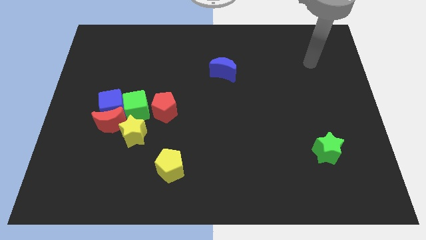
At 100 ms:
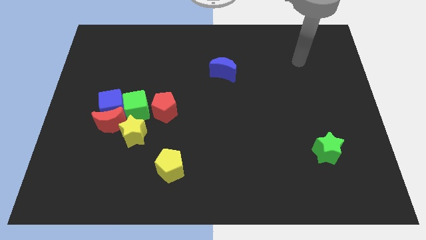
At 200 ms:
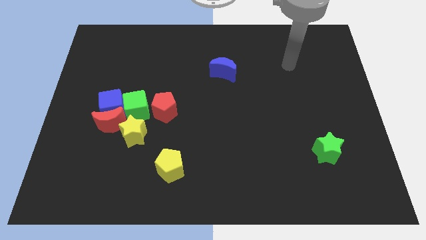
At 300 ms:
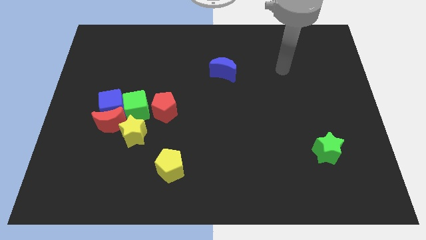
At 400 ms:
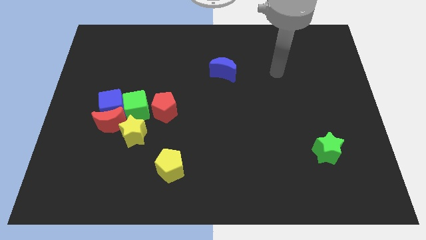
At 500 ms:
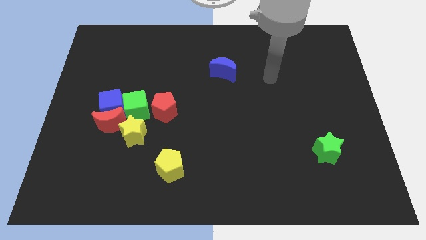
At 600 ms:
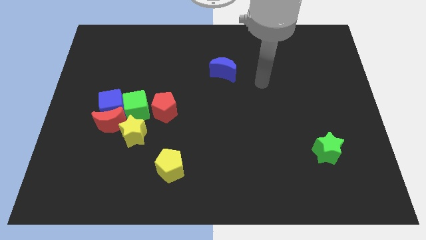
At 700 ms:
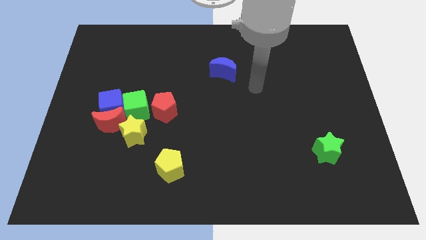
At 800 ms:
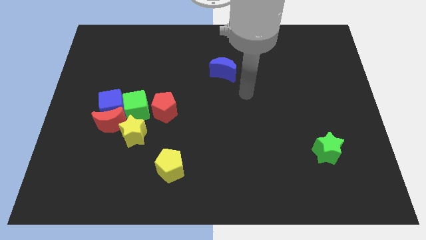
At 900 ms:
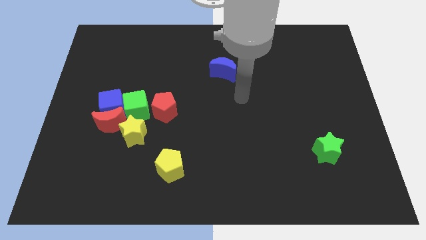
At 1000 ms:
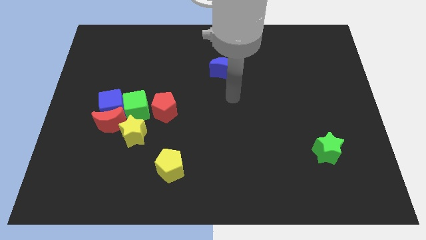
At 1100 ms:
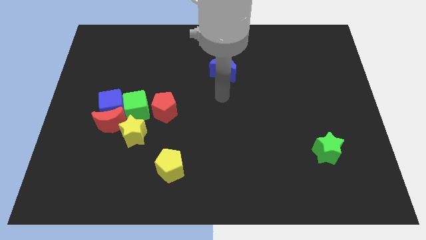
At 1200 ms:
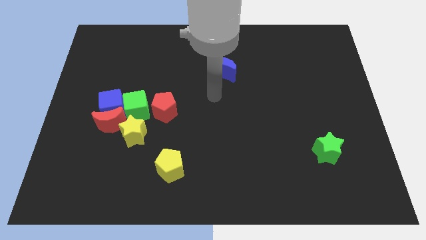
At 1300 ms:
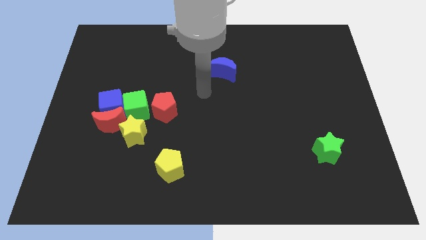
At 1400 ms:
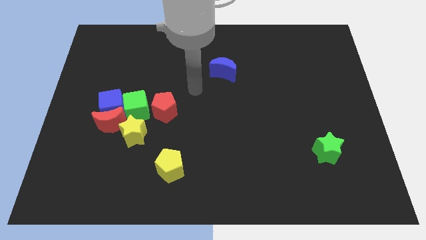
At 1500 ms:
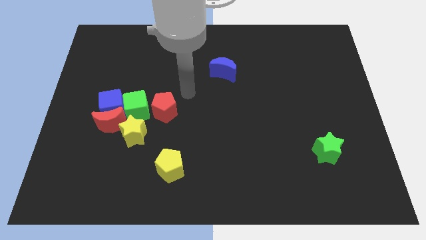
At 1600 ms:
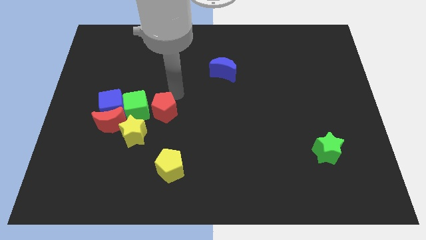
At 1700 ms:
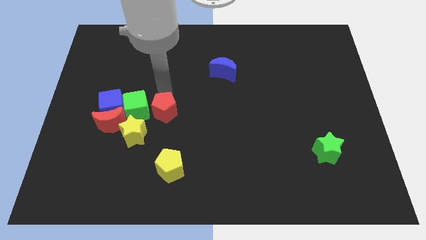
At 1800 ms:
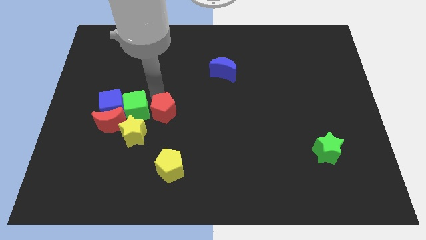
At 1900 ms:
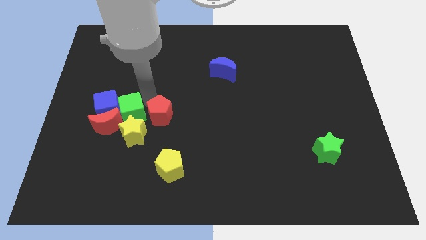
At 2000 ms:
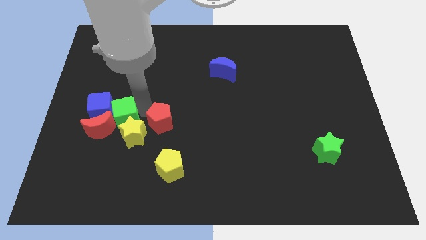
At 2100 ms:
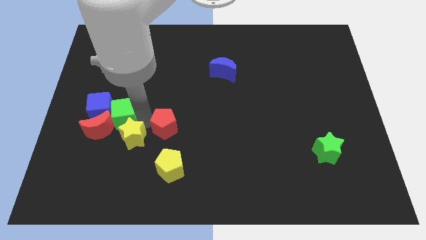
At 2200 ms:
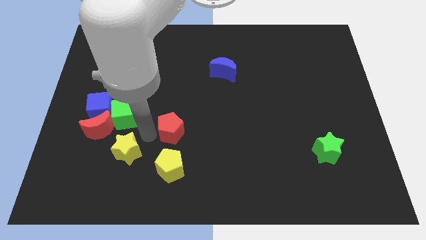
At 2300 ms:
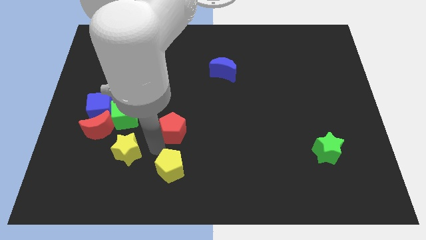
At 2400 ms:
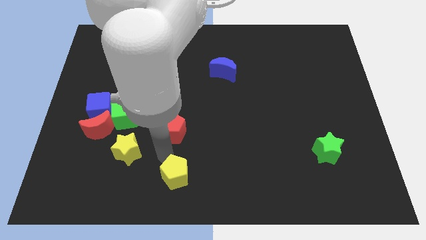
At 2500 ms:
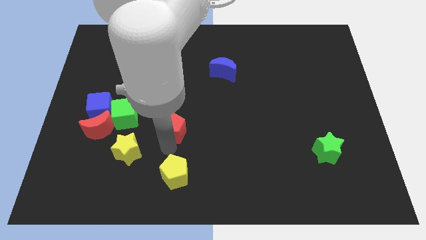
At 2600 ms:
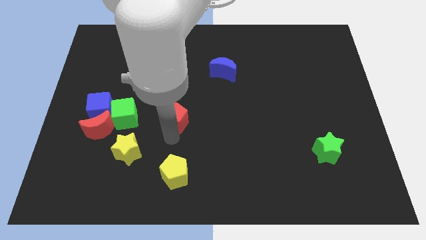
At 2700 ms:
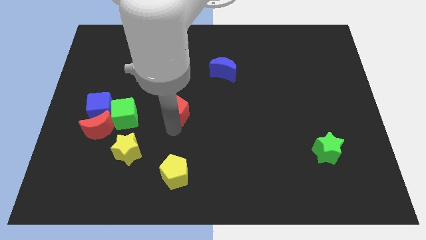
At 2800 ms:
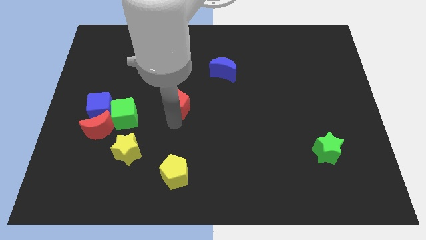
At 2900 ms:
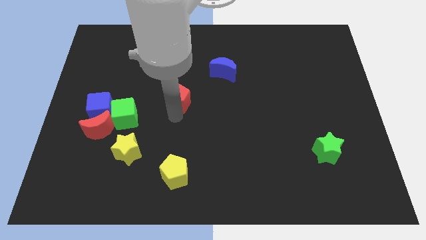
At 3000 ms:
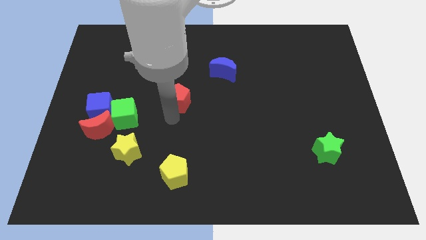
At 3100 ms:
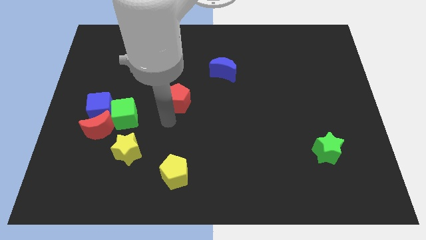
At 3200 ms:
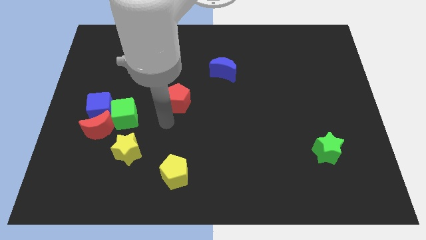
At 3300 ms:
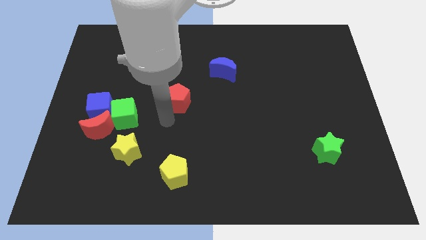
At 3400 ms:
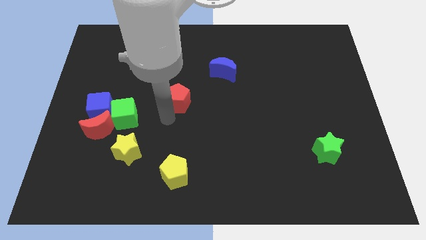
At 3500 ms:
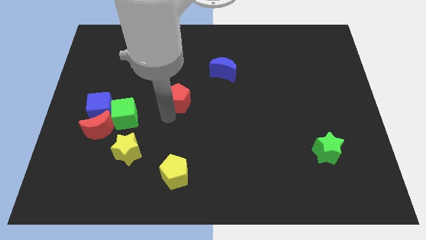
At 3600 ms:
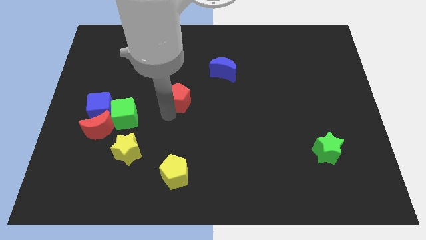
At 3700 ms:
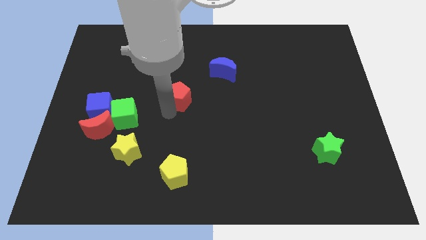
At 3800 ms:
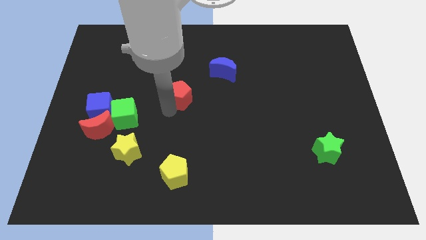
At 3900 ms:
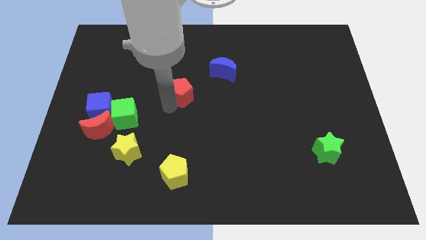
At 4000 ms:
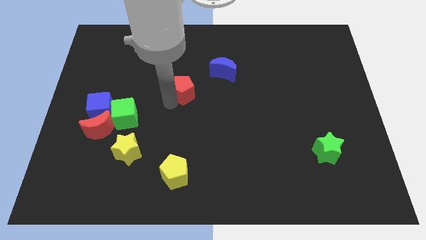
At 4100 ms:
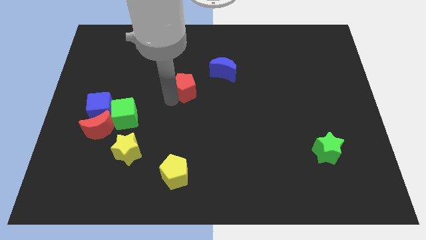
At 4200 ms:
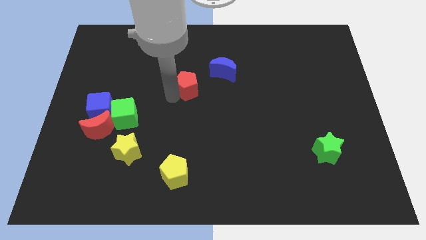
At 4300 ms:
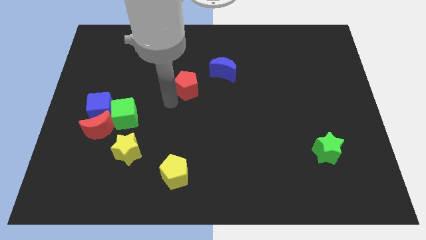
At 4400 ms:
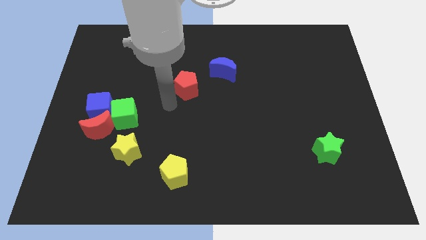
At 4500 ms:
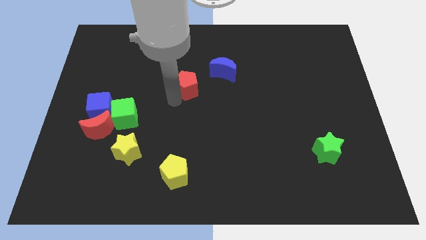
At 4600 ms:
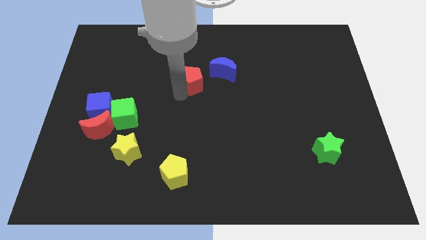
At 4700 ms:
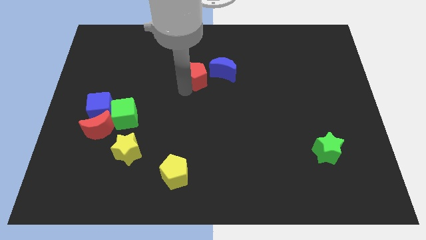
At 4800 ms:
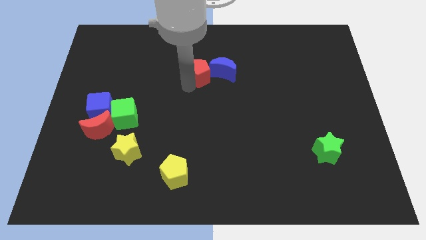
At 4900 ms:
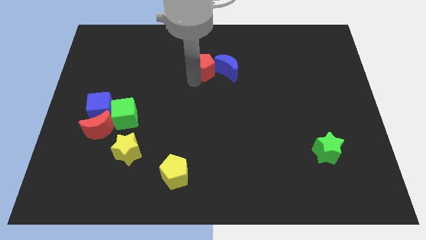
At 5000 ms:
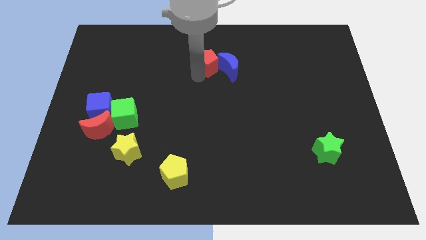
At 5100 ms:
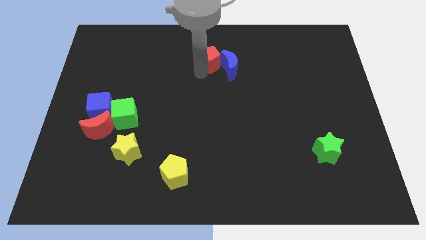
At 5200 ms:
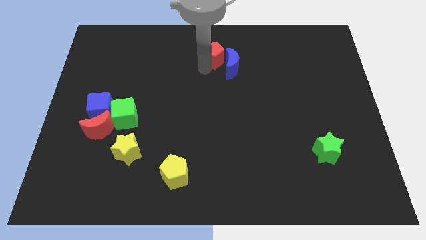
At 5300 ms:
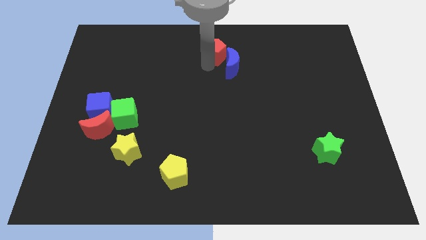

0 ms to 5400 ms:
push the red pentagon to the top side
